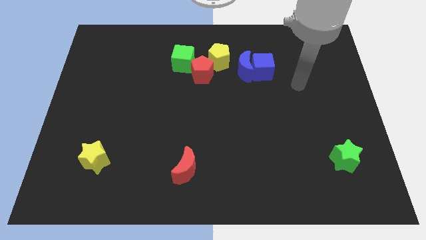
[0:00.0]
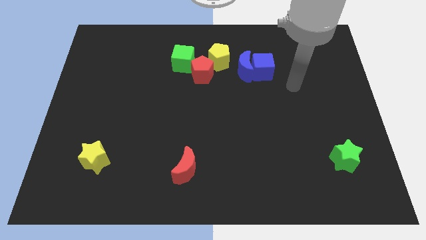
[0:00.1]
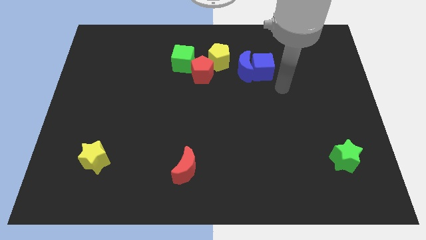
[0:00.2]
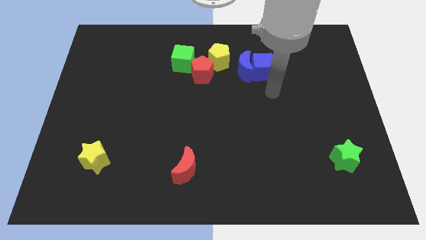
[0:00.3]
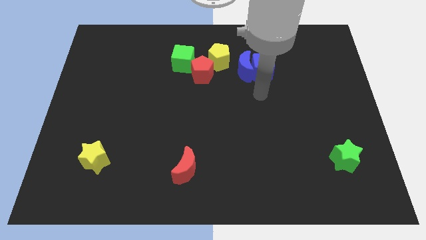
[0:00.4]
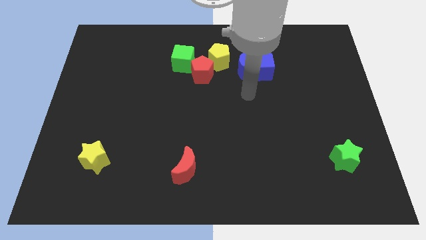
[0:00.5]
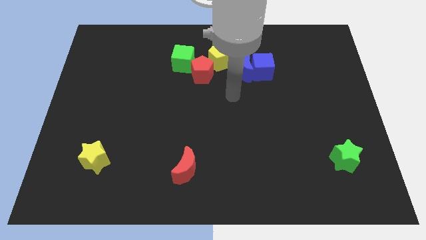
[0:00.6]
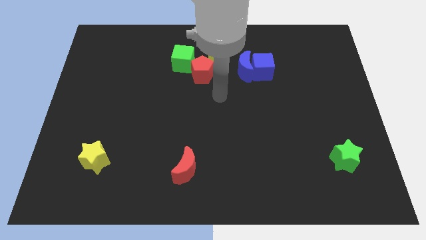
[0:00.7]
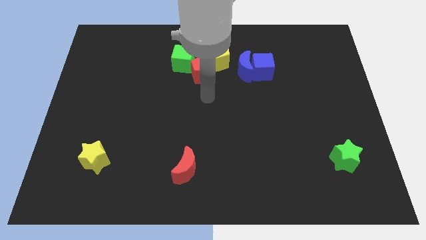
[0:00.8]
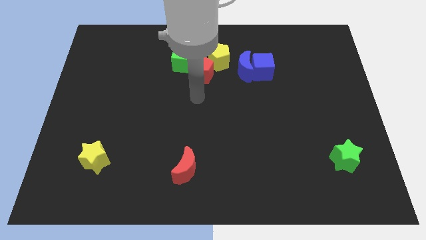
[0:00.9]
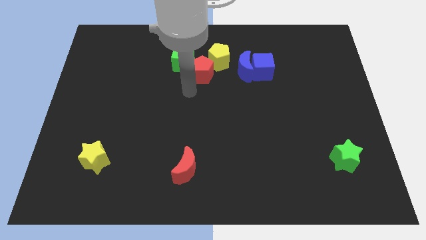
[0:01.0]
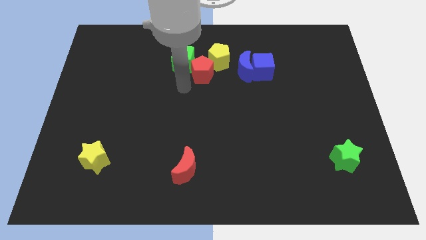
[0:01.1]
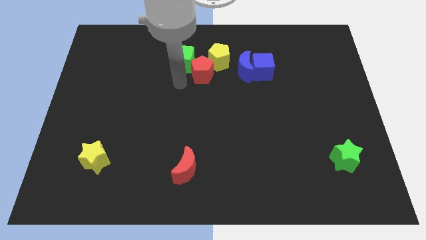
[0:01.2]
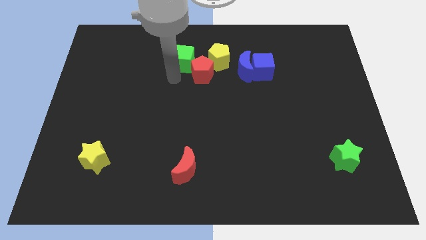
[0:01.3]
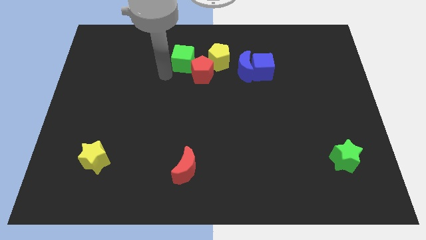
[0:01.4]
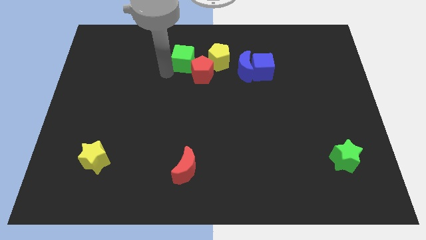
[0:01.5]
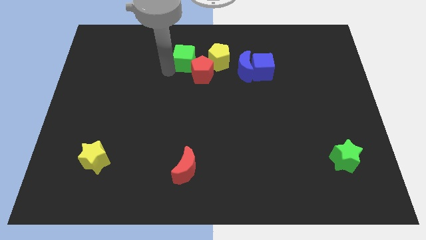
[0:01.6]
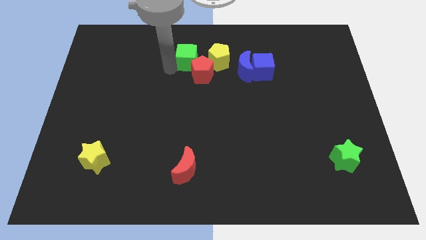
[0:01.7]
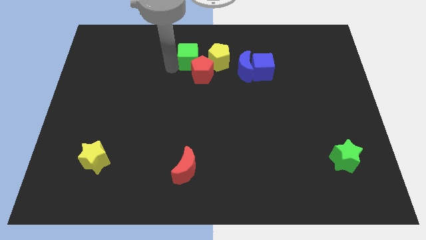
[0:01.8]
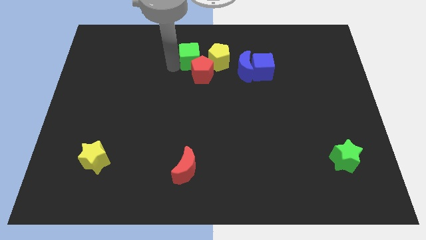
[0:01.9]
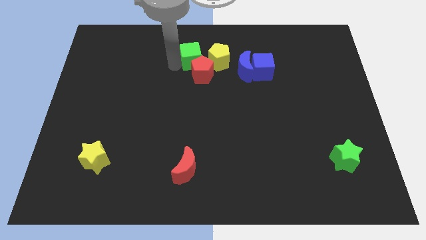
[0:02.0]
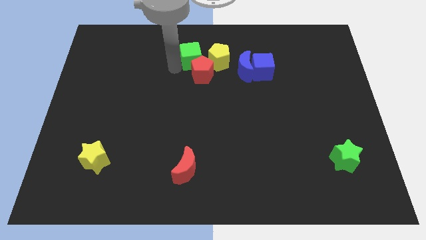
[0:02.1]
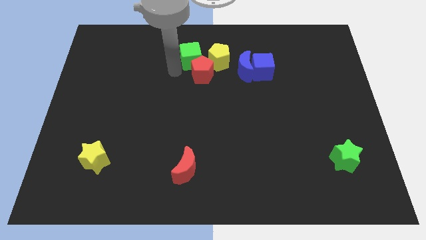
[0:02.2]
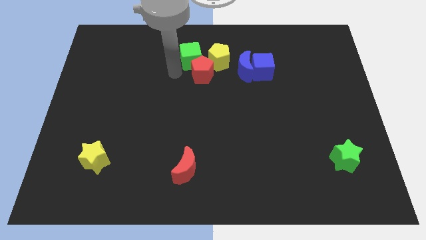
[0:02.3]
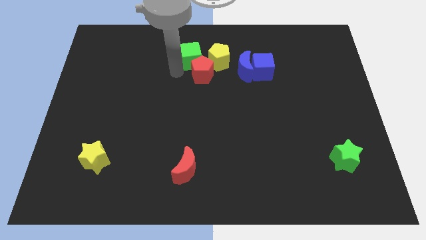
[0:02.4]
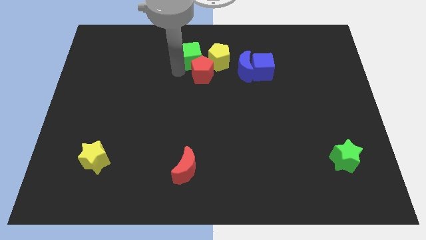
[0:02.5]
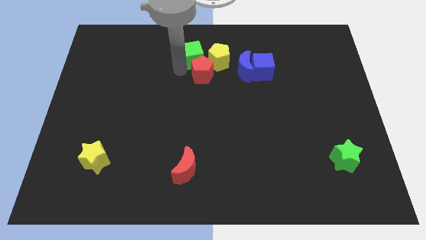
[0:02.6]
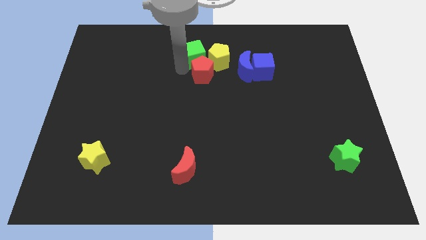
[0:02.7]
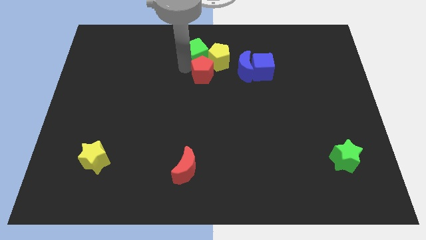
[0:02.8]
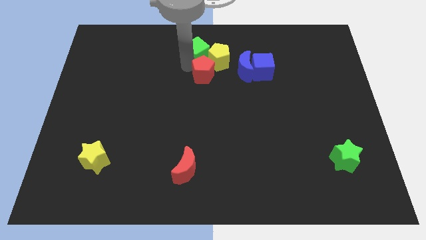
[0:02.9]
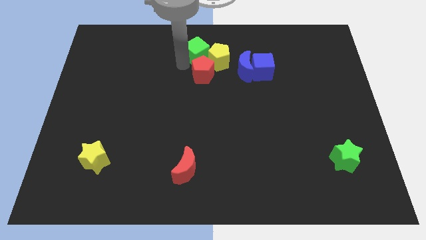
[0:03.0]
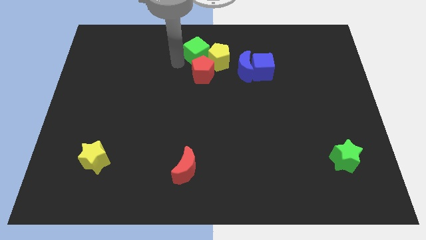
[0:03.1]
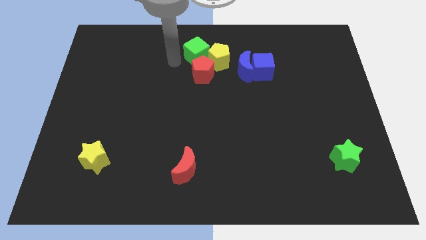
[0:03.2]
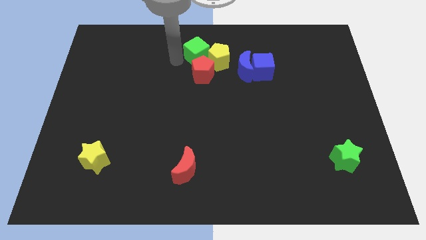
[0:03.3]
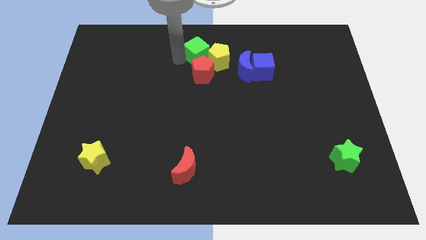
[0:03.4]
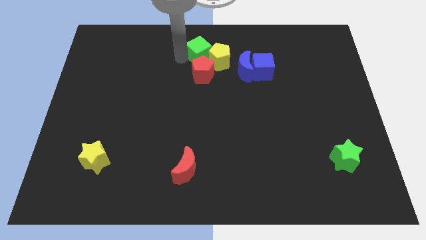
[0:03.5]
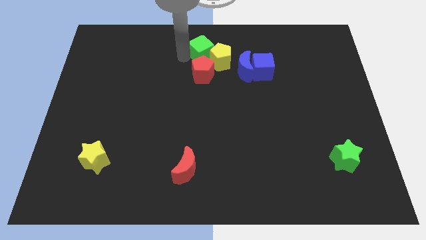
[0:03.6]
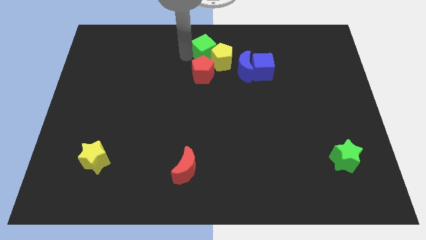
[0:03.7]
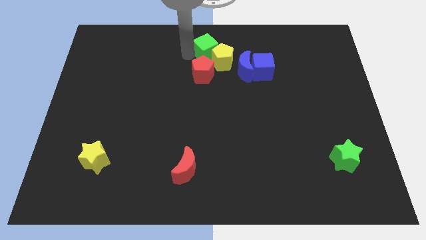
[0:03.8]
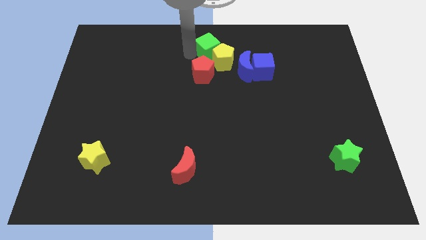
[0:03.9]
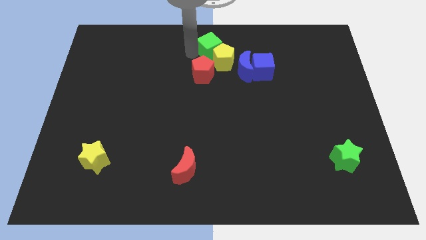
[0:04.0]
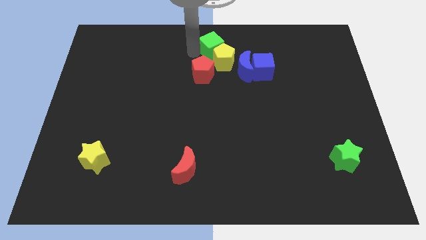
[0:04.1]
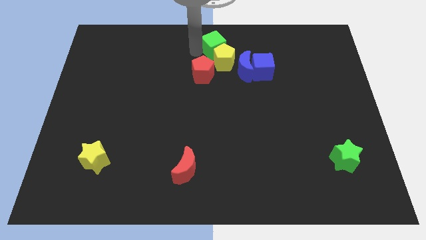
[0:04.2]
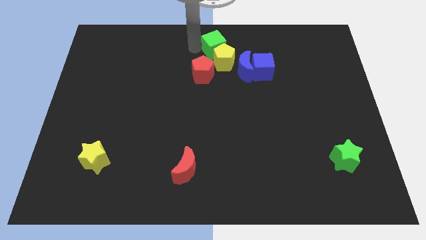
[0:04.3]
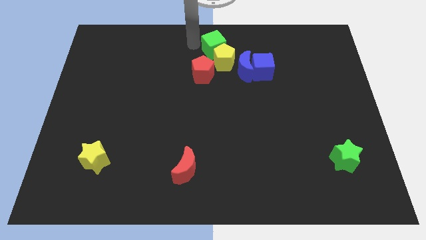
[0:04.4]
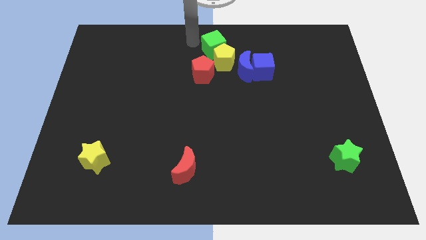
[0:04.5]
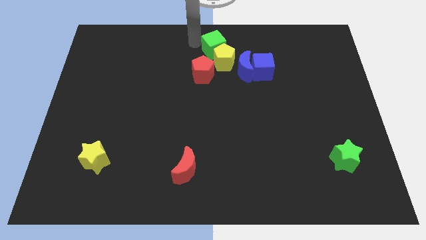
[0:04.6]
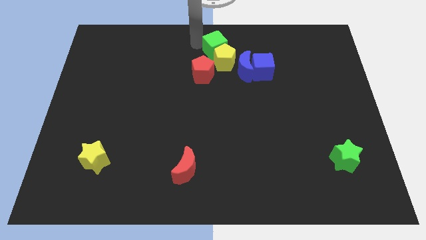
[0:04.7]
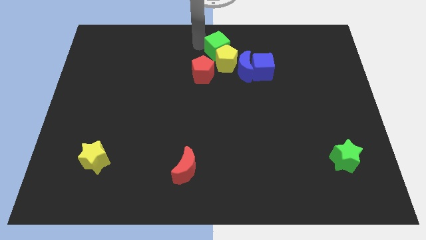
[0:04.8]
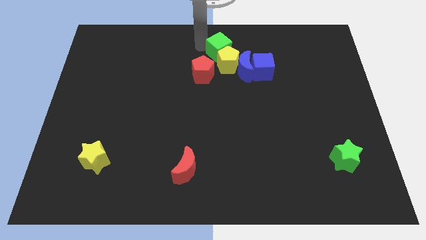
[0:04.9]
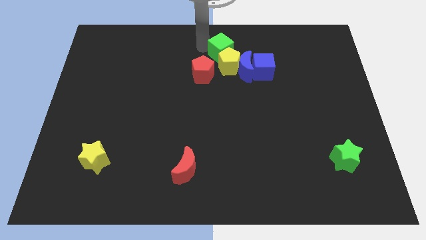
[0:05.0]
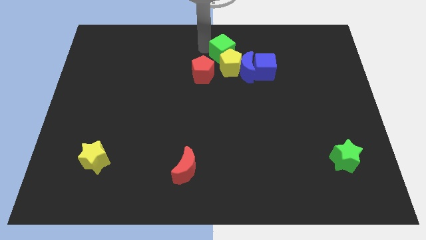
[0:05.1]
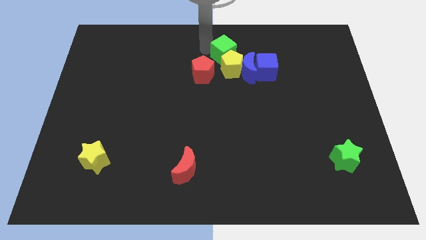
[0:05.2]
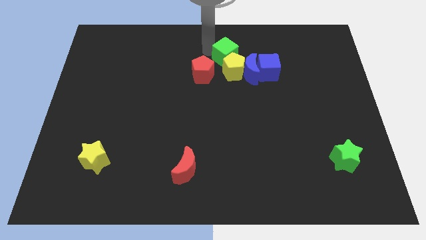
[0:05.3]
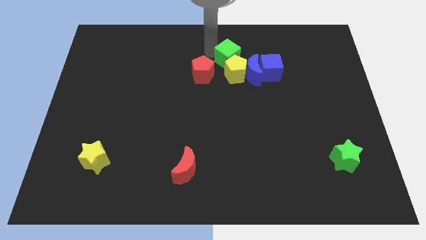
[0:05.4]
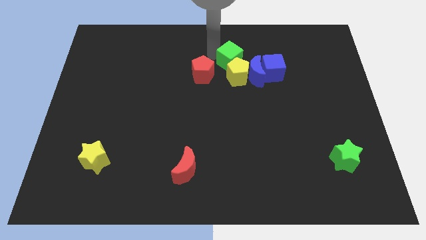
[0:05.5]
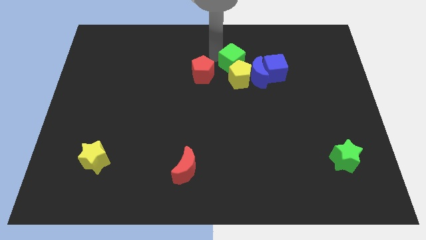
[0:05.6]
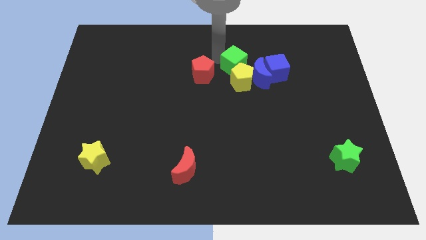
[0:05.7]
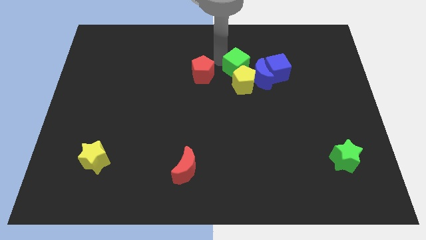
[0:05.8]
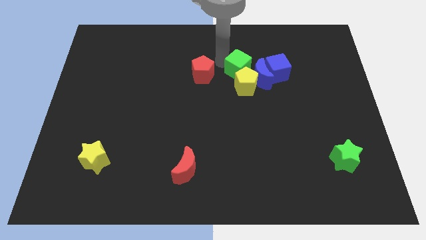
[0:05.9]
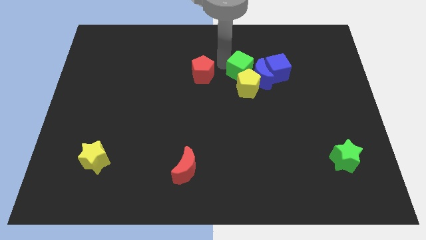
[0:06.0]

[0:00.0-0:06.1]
push the green cube towards the blue moon

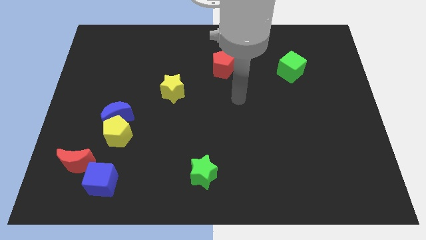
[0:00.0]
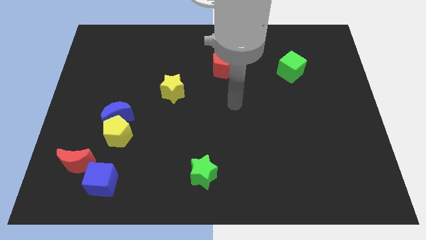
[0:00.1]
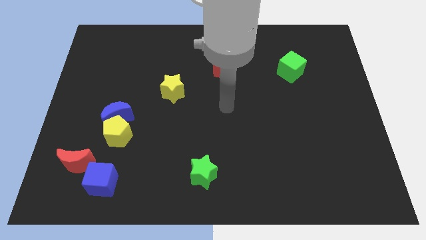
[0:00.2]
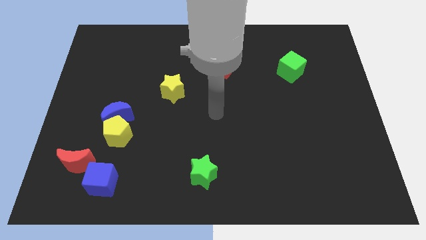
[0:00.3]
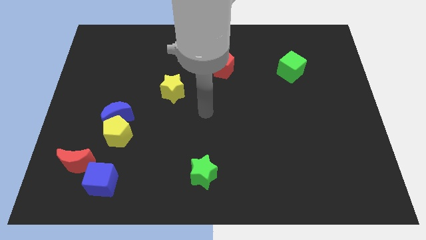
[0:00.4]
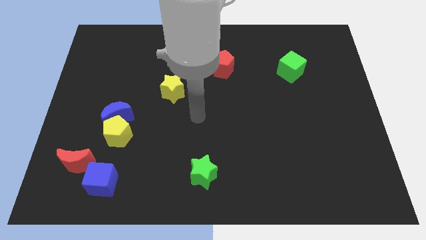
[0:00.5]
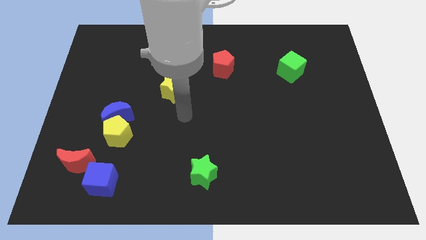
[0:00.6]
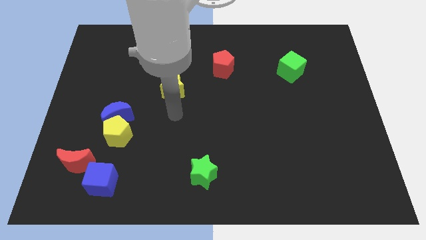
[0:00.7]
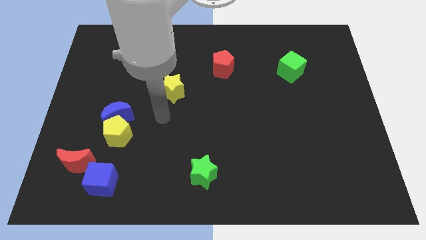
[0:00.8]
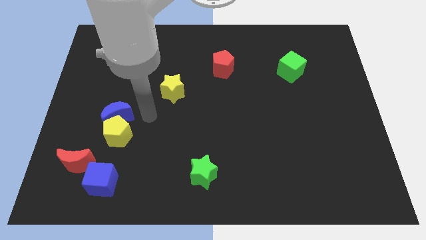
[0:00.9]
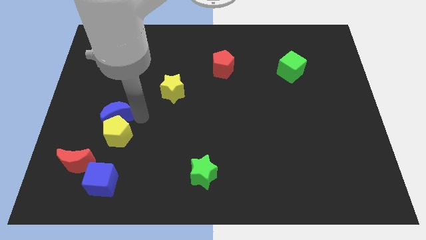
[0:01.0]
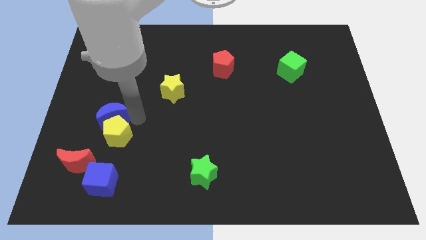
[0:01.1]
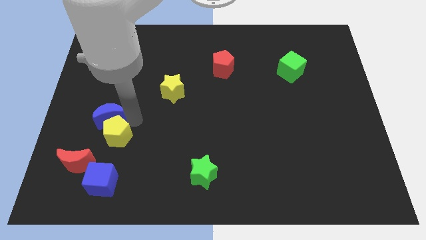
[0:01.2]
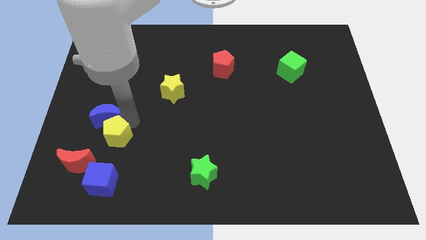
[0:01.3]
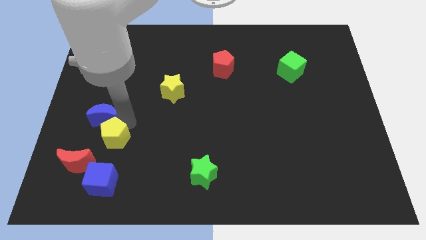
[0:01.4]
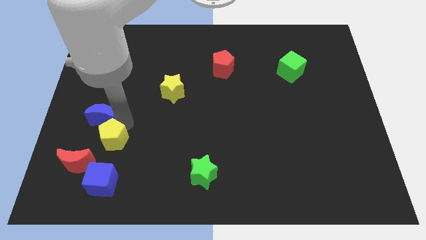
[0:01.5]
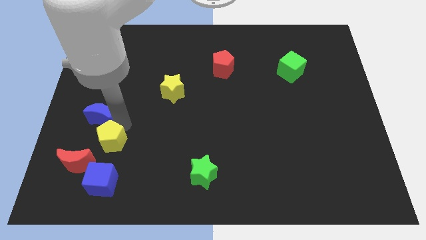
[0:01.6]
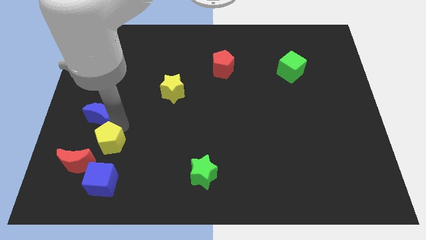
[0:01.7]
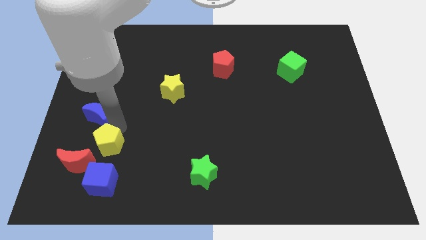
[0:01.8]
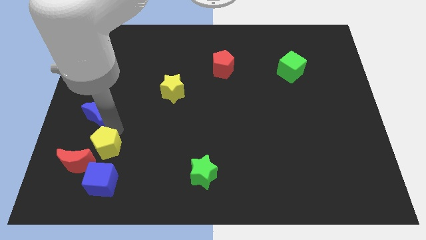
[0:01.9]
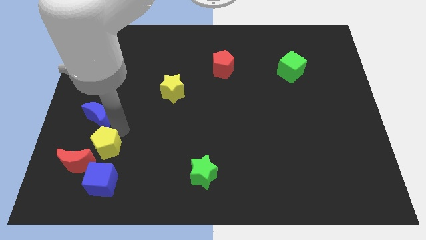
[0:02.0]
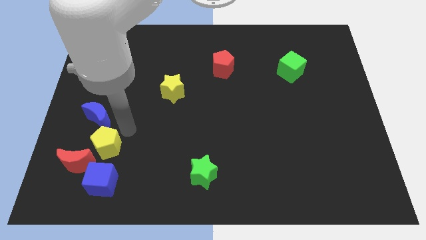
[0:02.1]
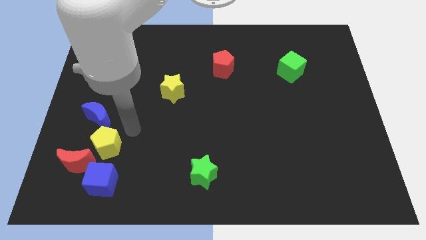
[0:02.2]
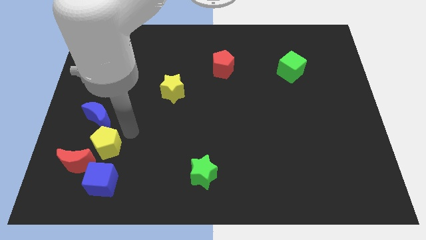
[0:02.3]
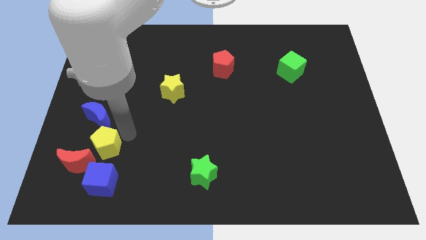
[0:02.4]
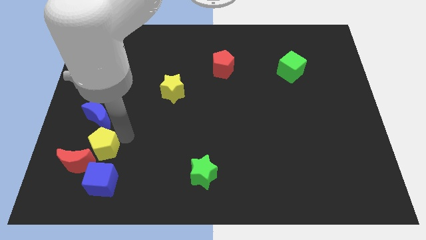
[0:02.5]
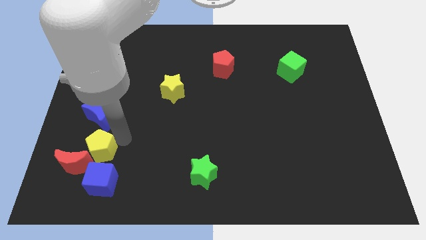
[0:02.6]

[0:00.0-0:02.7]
push the yellow pentagon to the red moon
